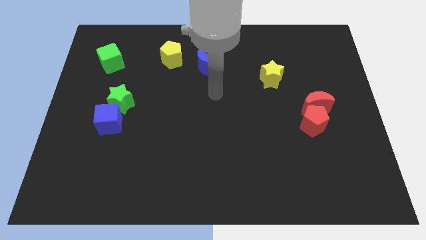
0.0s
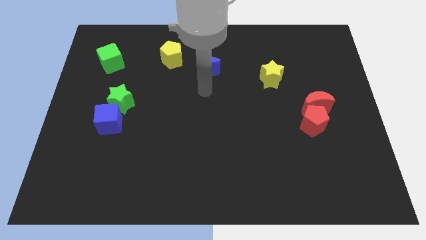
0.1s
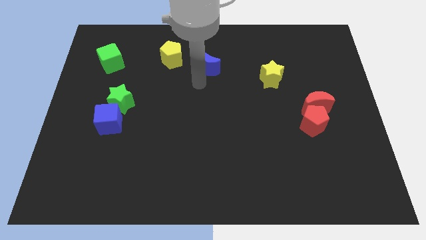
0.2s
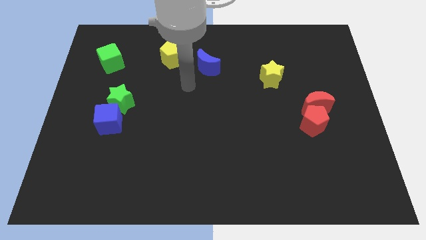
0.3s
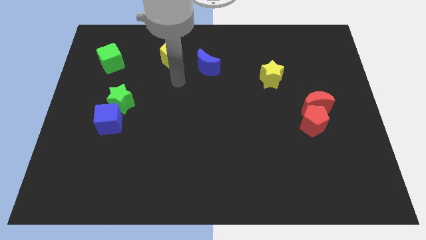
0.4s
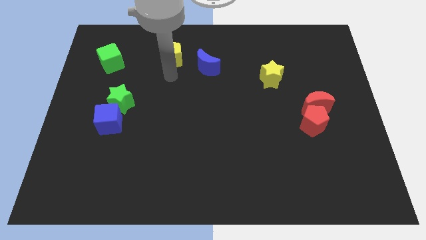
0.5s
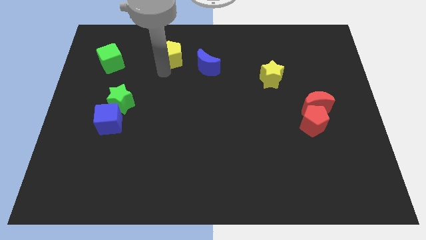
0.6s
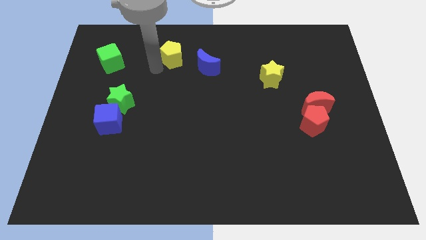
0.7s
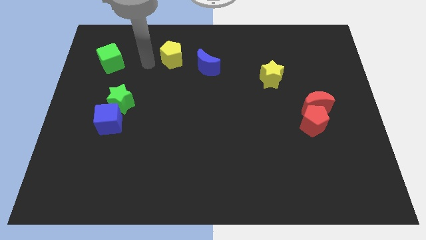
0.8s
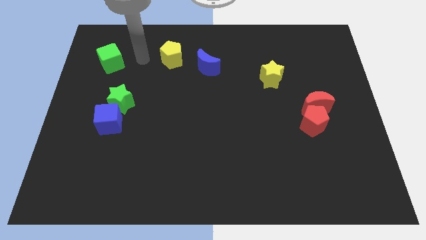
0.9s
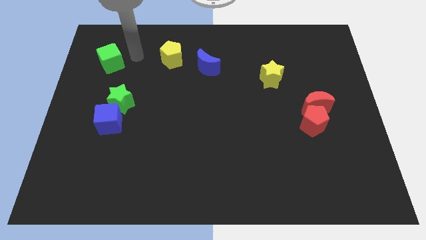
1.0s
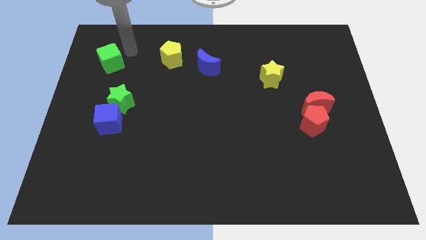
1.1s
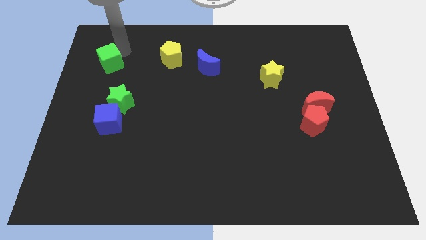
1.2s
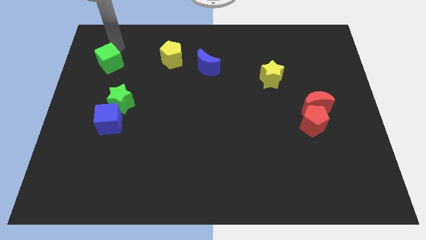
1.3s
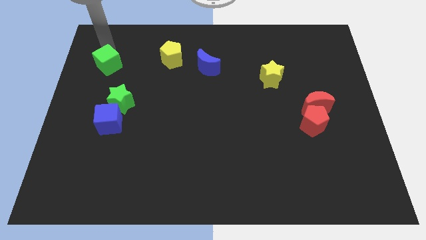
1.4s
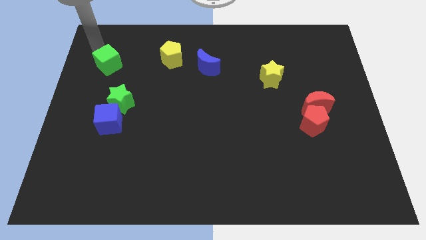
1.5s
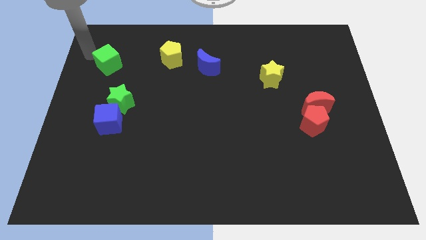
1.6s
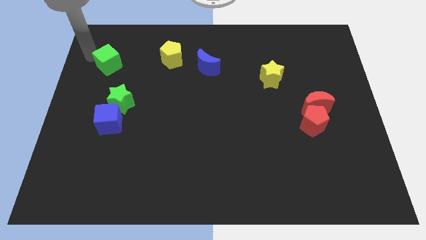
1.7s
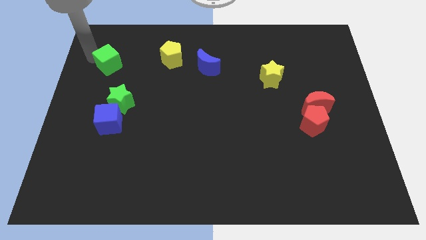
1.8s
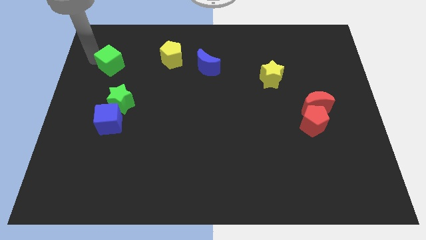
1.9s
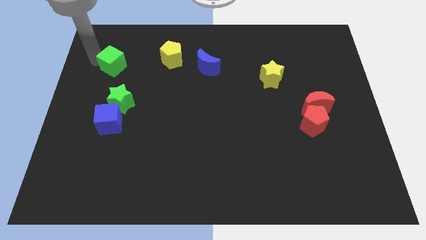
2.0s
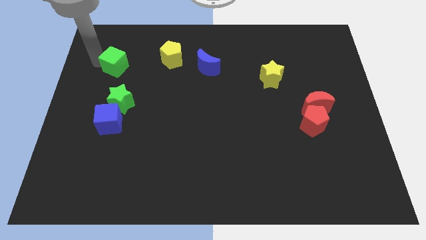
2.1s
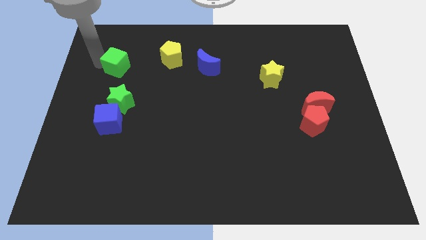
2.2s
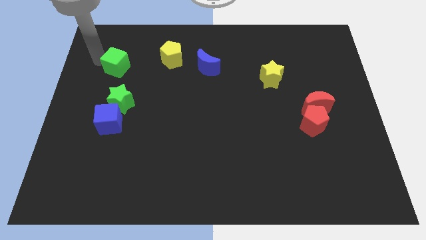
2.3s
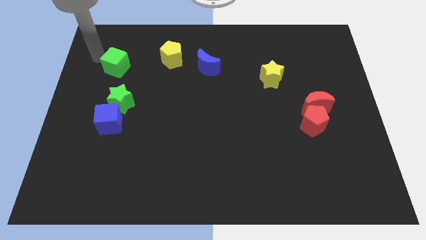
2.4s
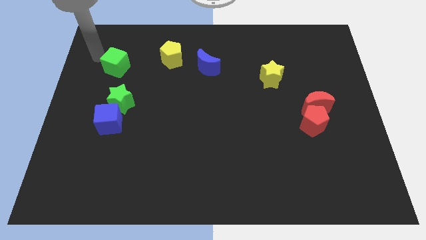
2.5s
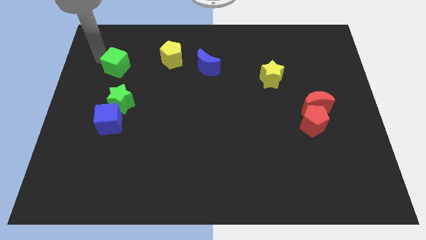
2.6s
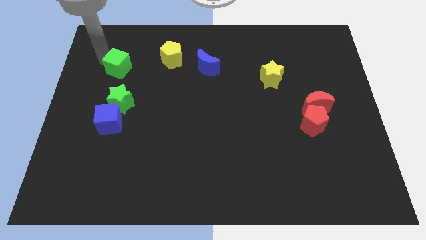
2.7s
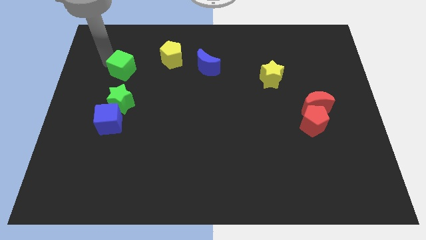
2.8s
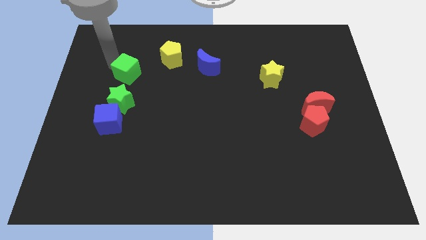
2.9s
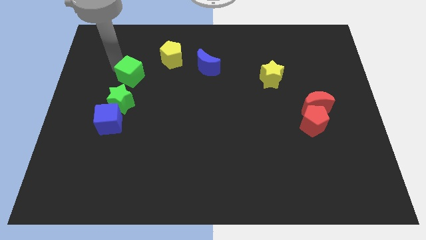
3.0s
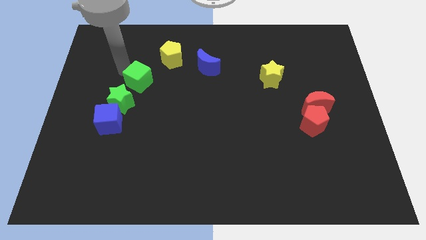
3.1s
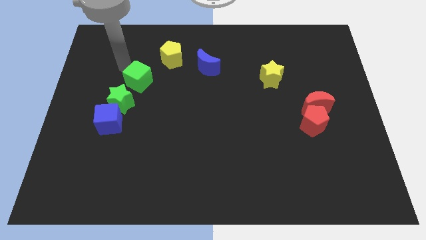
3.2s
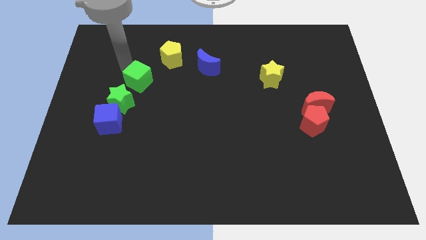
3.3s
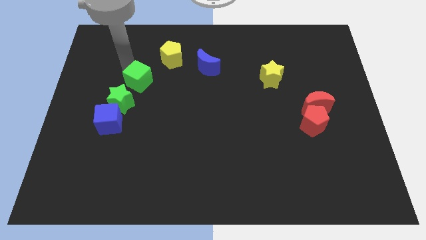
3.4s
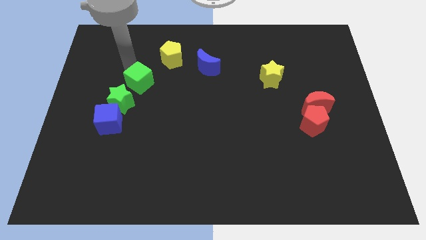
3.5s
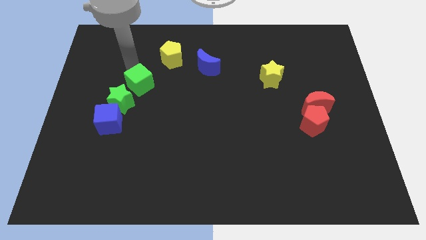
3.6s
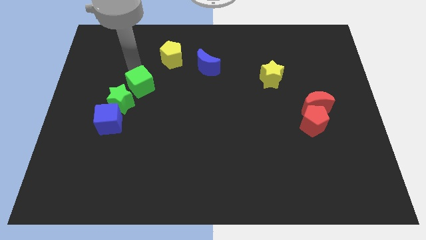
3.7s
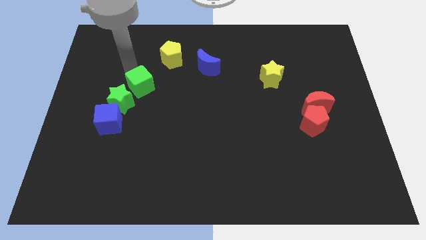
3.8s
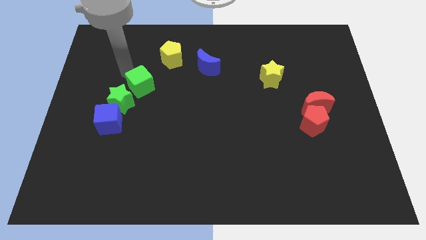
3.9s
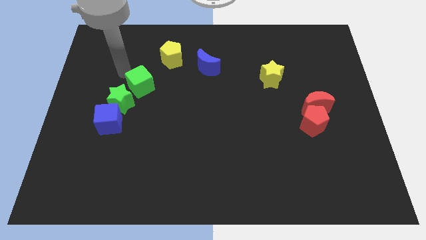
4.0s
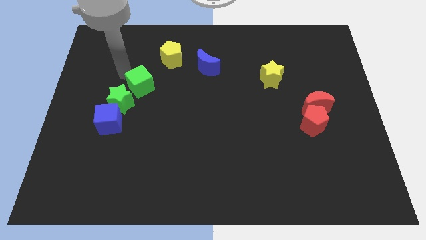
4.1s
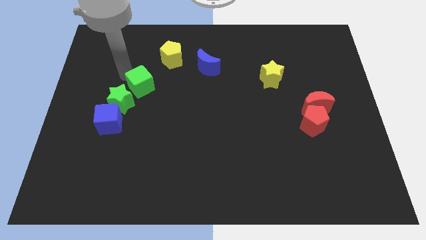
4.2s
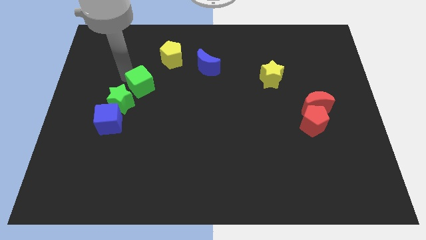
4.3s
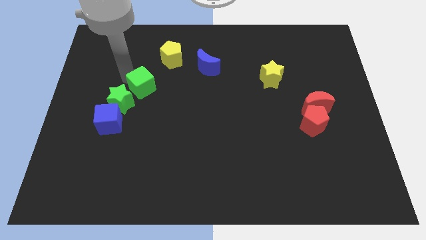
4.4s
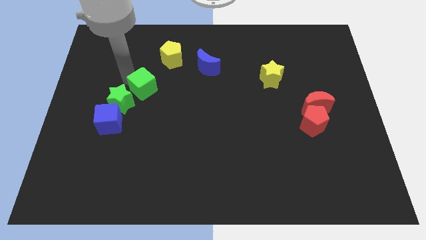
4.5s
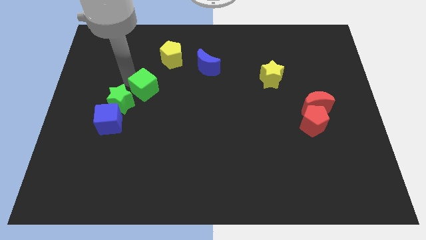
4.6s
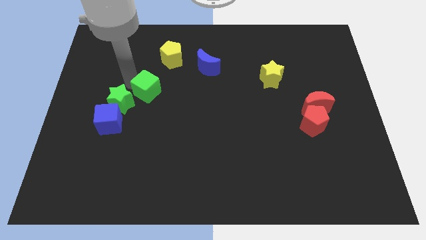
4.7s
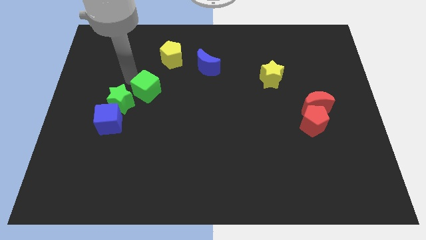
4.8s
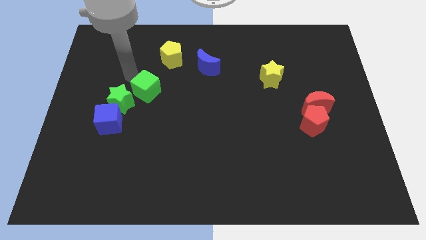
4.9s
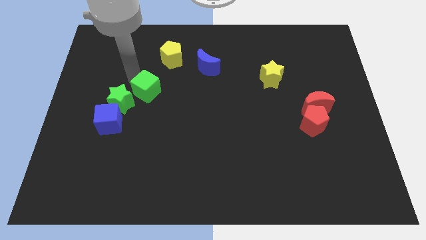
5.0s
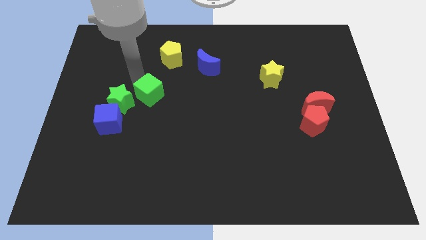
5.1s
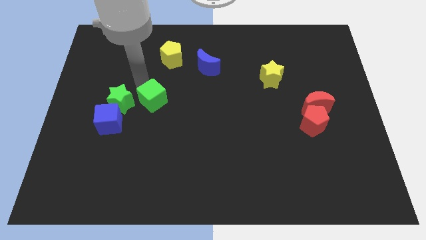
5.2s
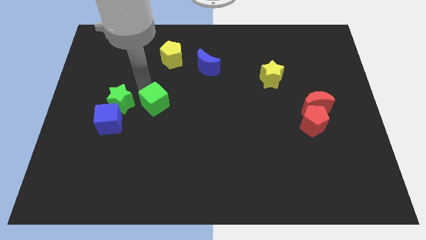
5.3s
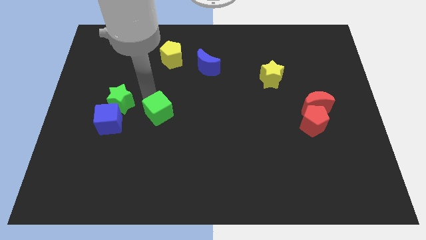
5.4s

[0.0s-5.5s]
slide the green cube diagonally down and right

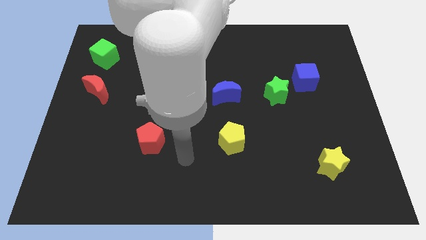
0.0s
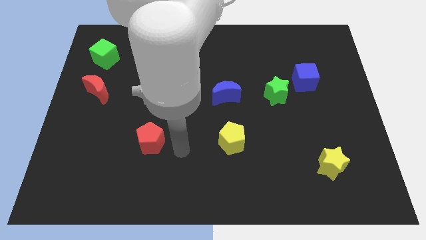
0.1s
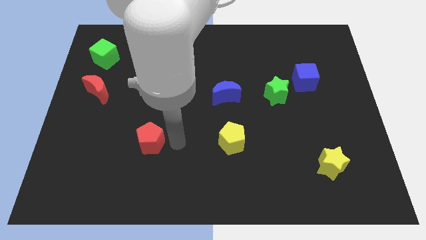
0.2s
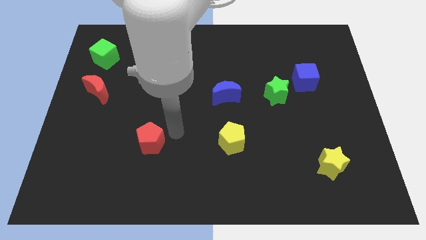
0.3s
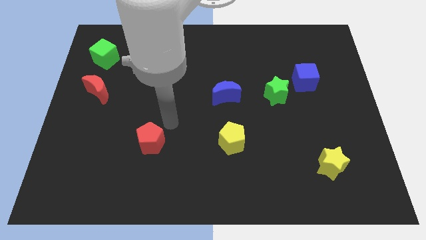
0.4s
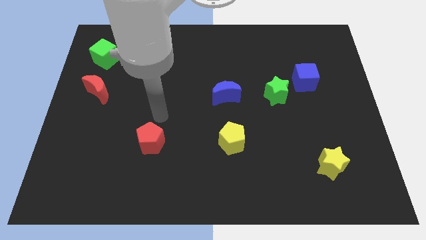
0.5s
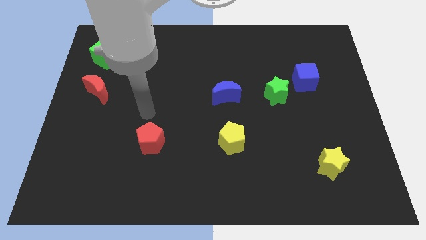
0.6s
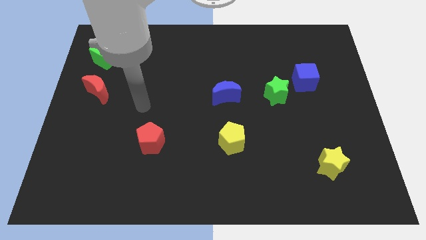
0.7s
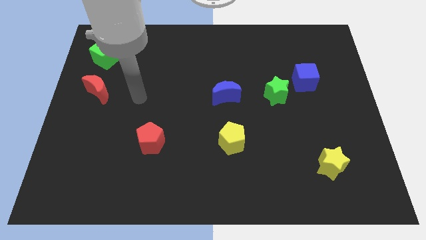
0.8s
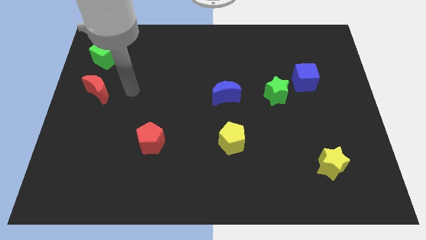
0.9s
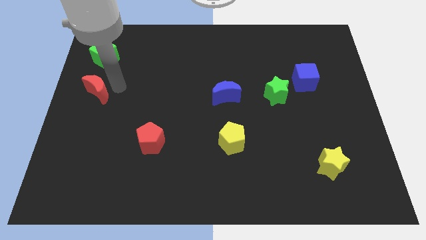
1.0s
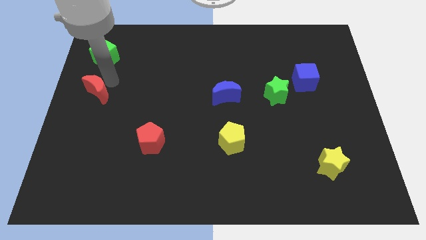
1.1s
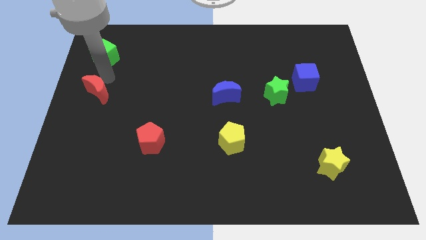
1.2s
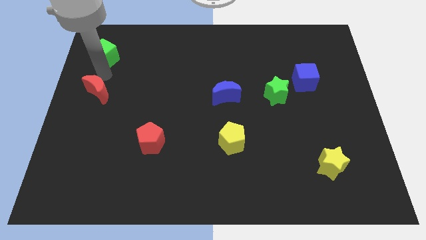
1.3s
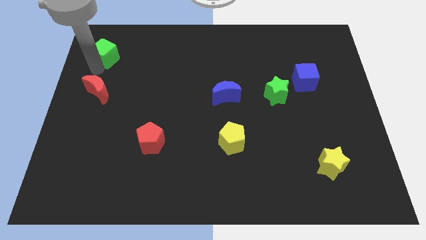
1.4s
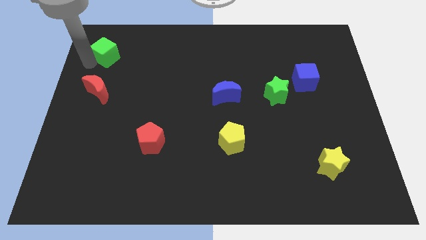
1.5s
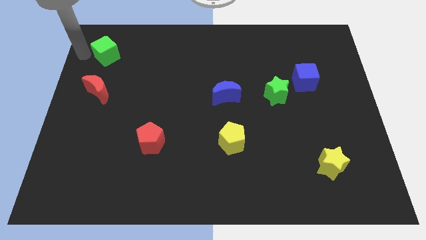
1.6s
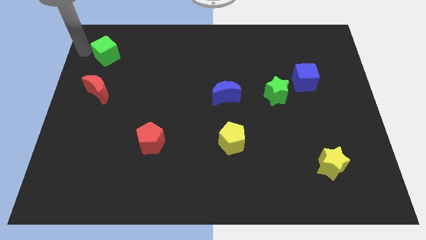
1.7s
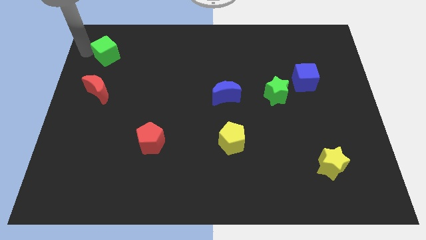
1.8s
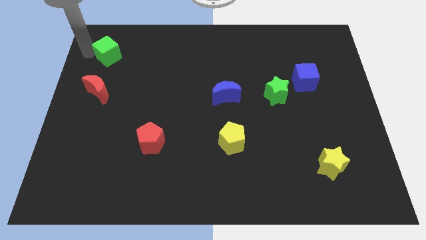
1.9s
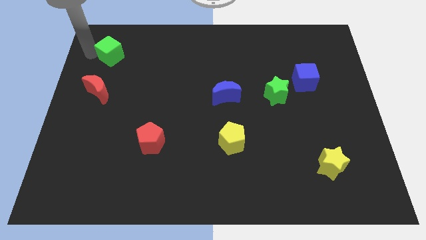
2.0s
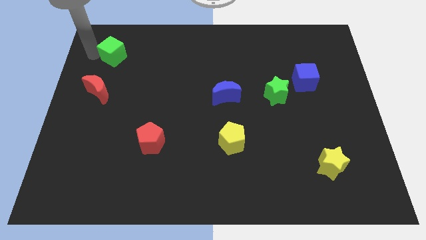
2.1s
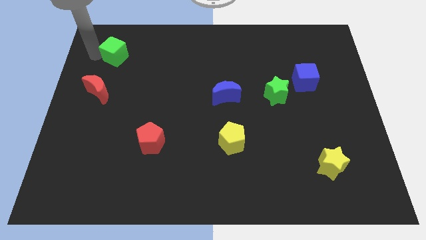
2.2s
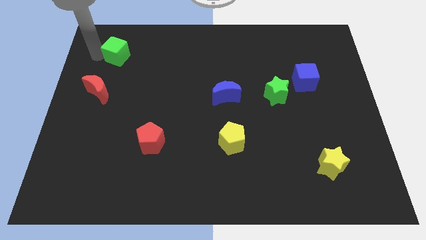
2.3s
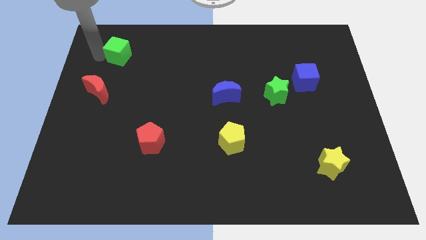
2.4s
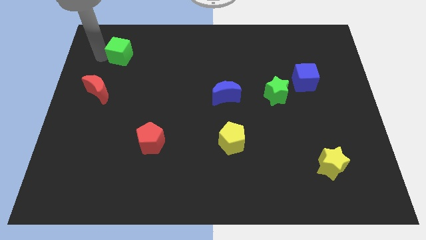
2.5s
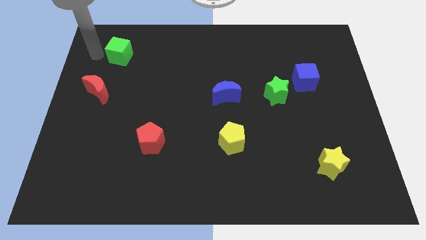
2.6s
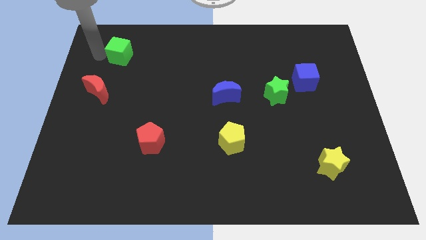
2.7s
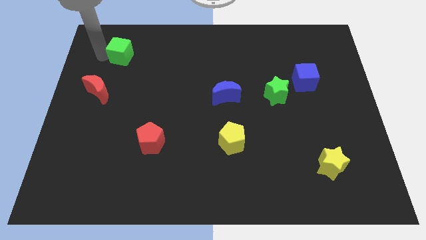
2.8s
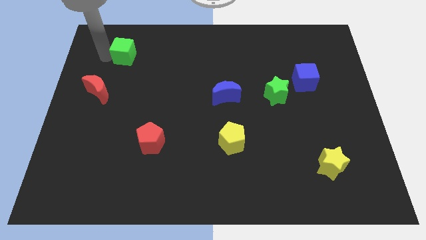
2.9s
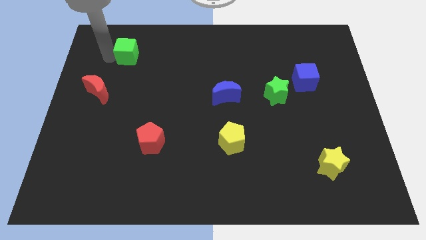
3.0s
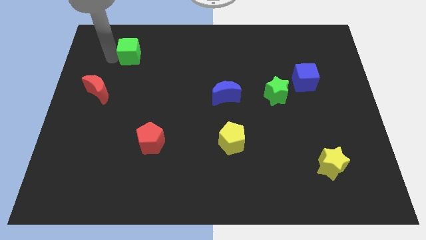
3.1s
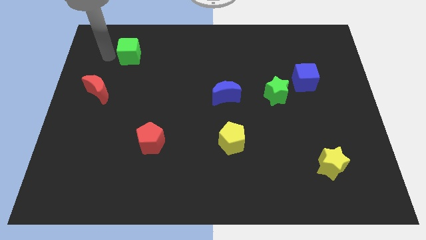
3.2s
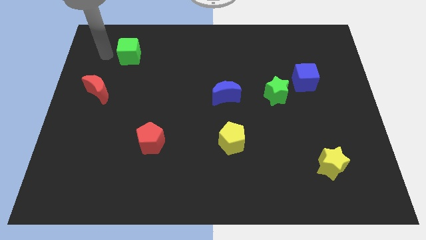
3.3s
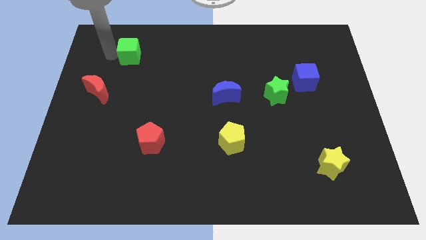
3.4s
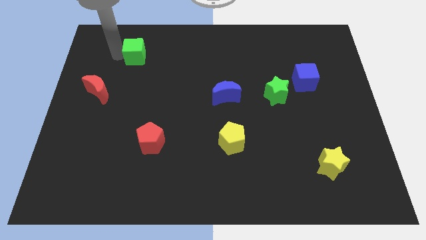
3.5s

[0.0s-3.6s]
slightly push the green cube right
